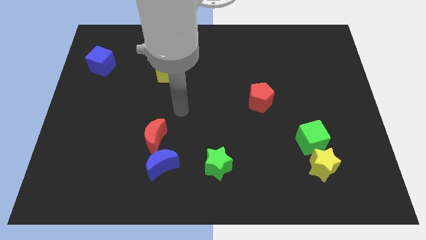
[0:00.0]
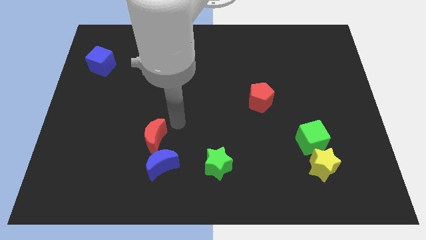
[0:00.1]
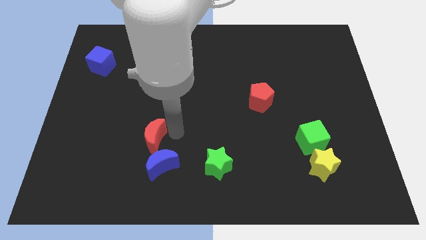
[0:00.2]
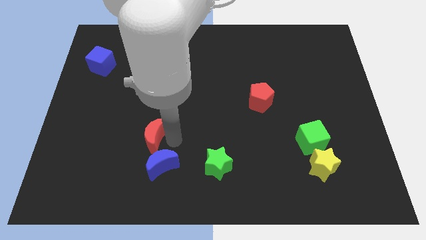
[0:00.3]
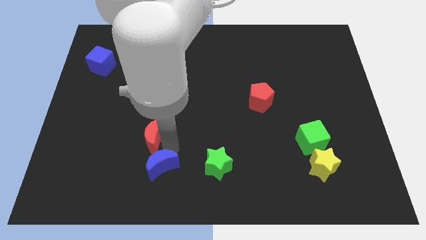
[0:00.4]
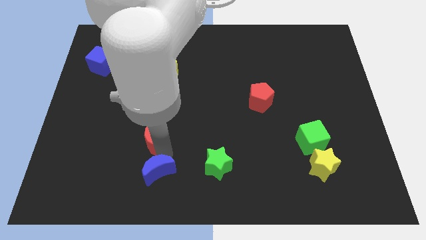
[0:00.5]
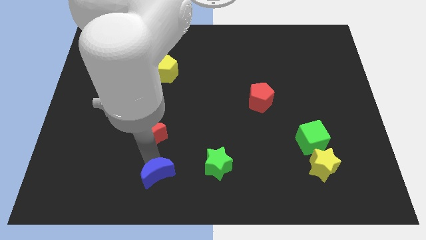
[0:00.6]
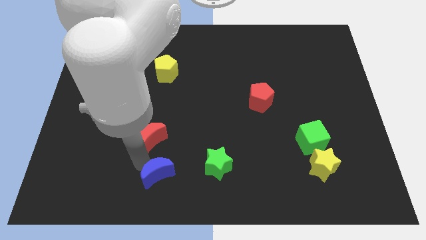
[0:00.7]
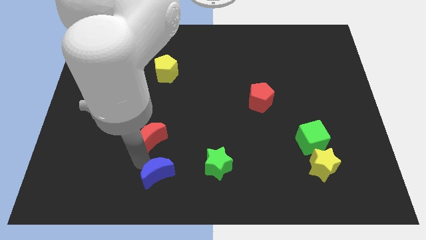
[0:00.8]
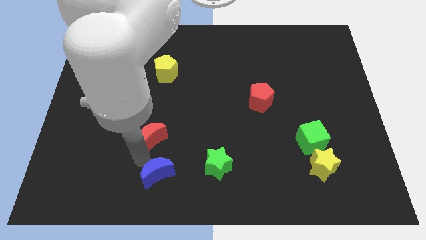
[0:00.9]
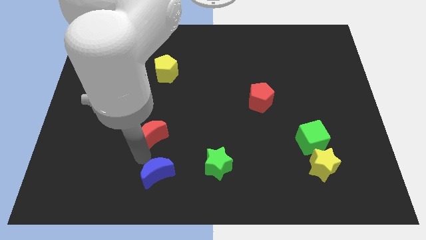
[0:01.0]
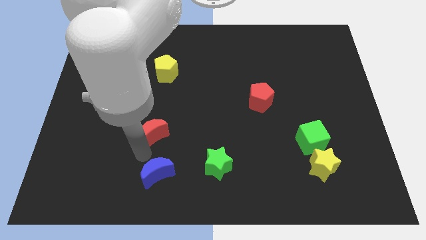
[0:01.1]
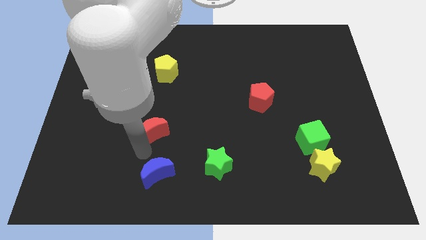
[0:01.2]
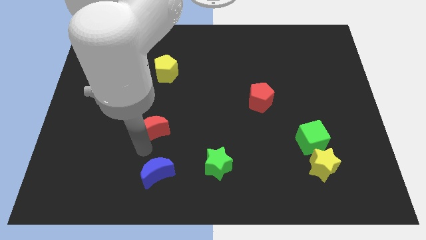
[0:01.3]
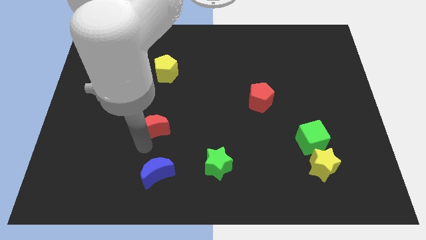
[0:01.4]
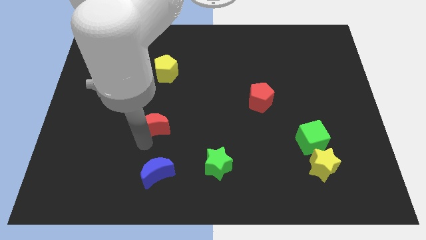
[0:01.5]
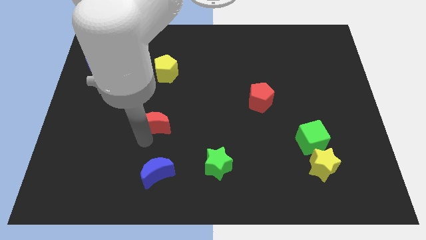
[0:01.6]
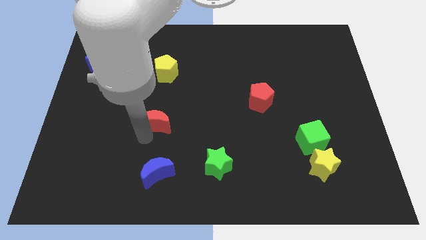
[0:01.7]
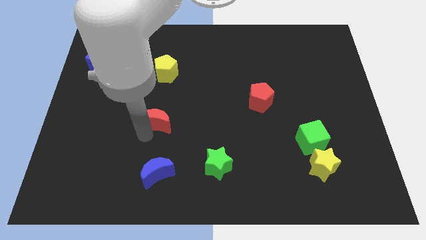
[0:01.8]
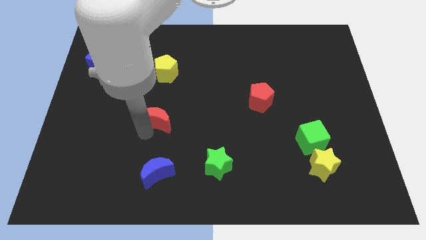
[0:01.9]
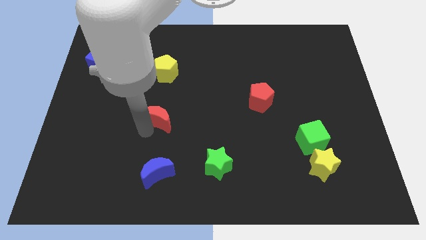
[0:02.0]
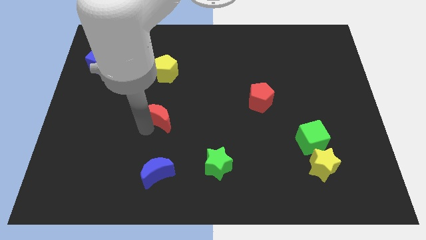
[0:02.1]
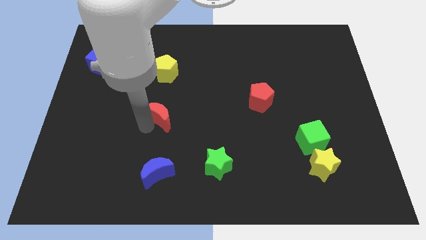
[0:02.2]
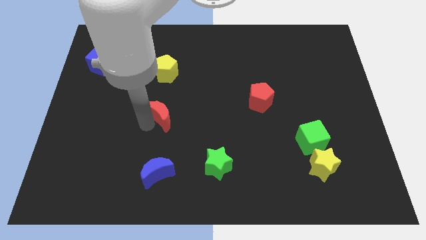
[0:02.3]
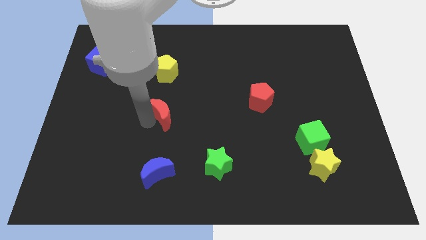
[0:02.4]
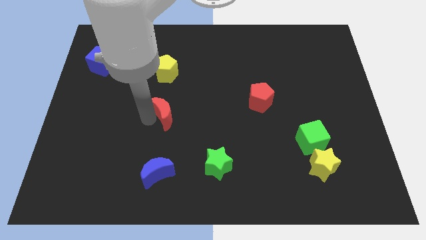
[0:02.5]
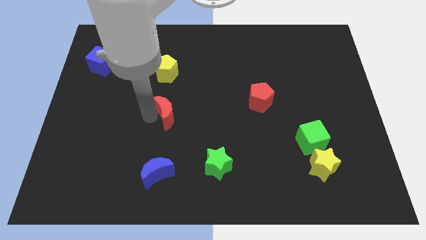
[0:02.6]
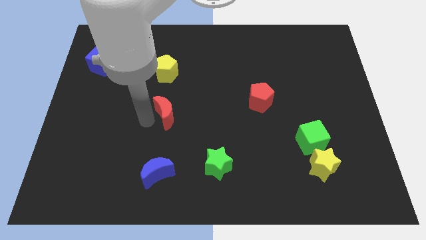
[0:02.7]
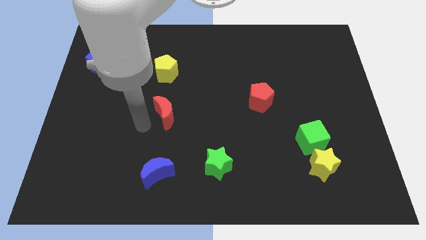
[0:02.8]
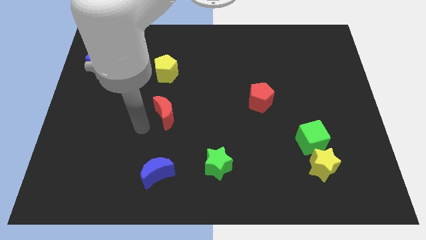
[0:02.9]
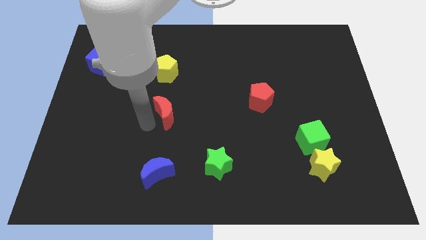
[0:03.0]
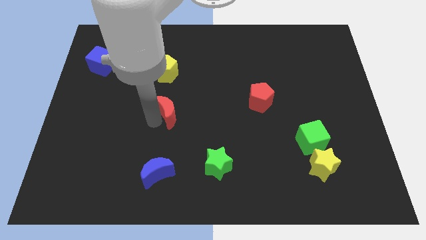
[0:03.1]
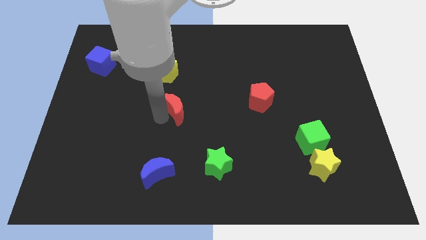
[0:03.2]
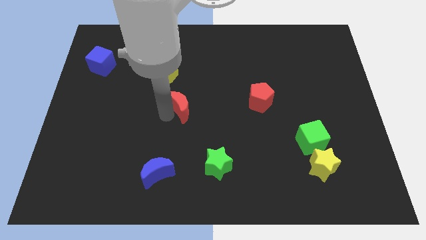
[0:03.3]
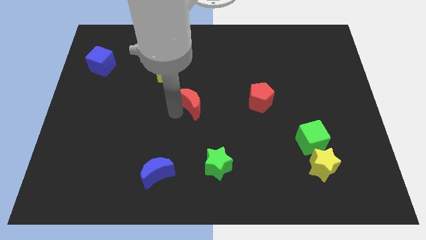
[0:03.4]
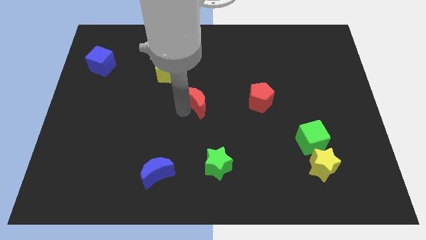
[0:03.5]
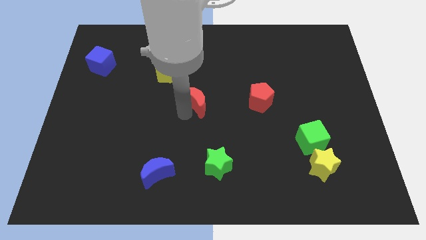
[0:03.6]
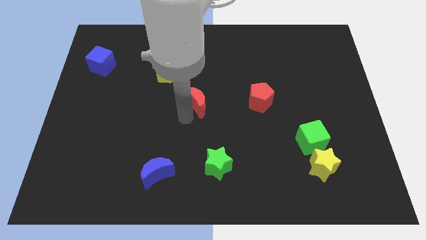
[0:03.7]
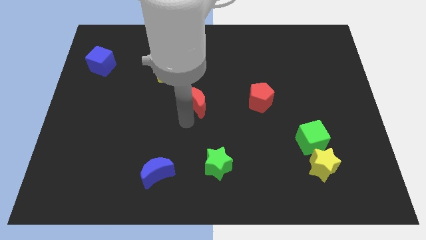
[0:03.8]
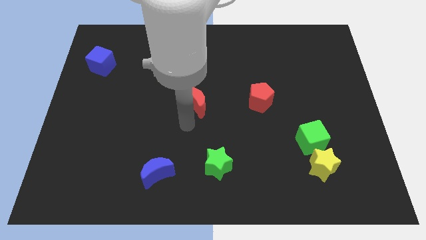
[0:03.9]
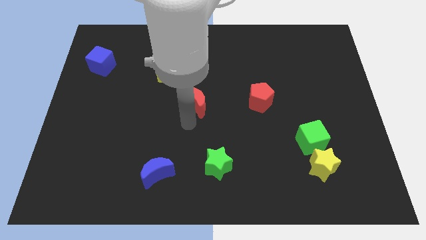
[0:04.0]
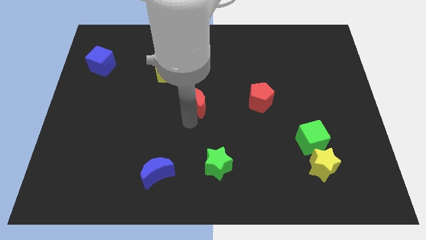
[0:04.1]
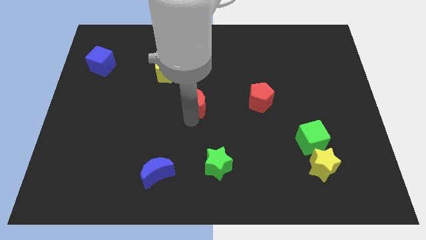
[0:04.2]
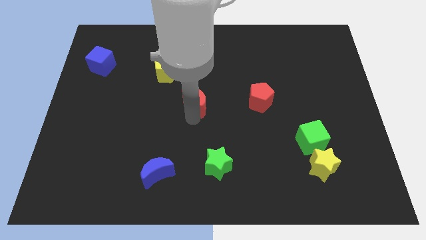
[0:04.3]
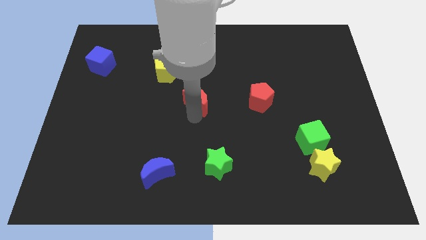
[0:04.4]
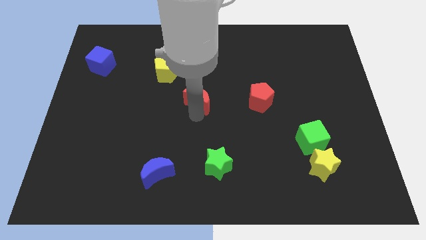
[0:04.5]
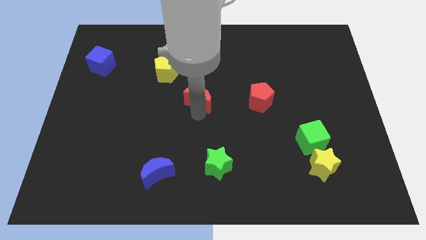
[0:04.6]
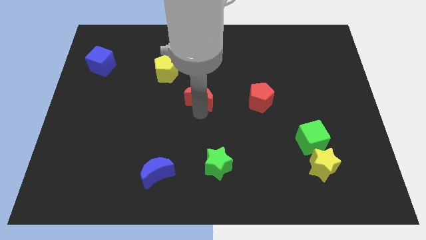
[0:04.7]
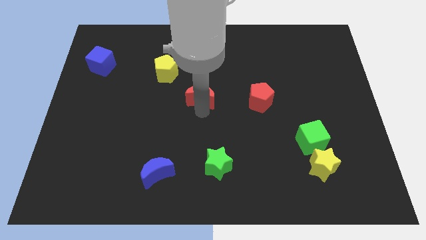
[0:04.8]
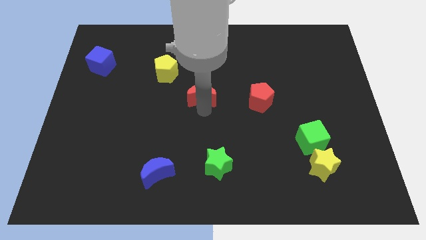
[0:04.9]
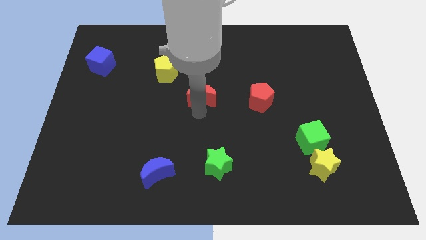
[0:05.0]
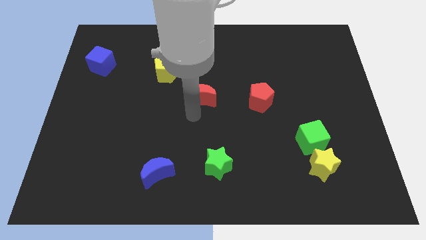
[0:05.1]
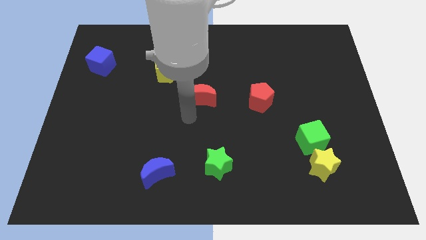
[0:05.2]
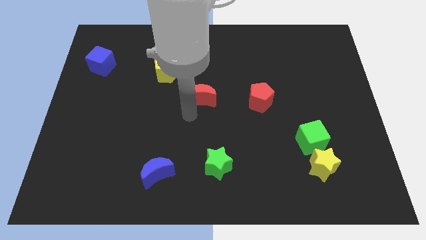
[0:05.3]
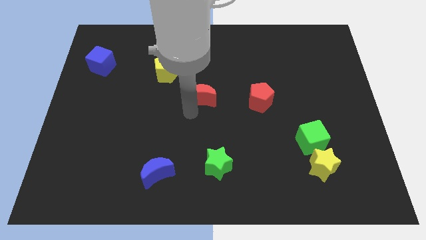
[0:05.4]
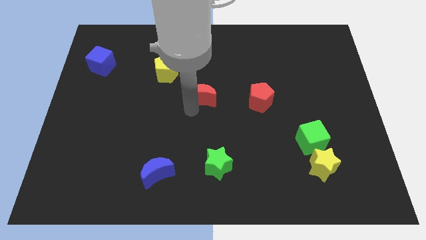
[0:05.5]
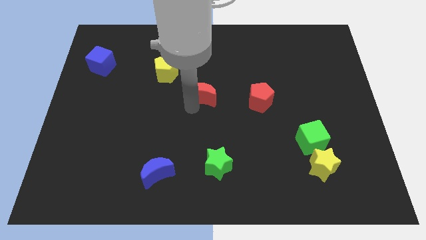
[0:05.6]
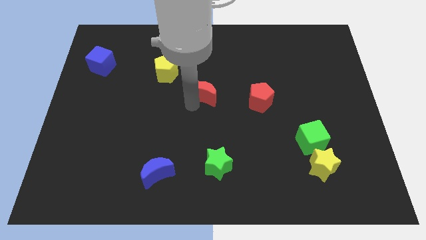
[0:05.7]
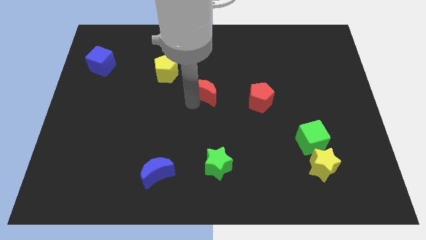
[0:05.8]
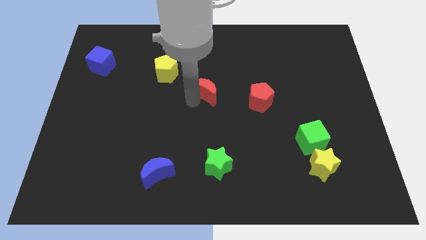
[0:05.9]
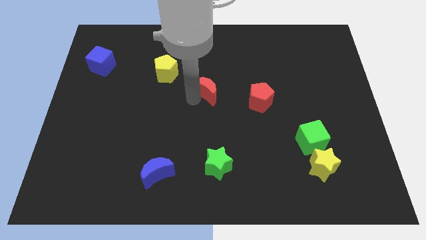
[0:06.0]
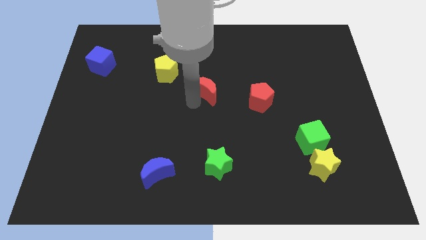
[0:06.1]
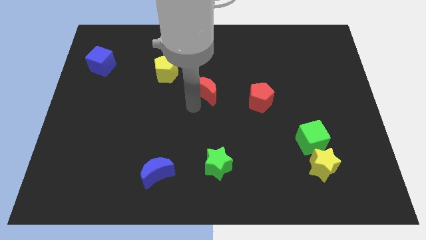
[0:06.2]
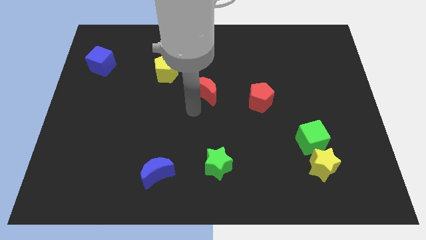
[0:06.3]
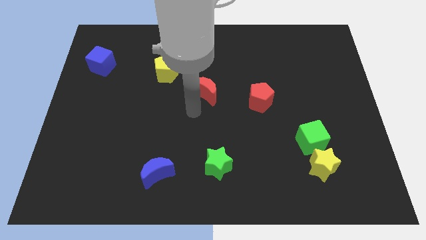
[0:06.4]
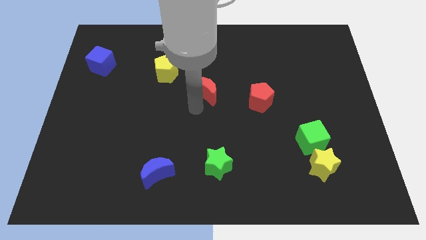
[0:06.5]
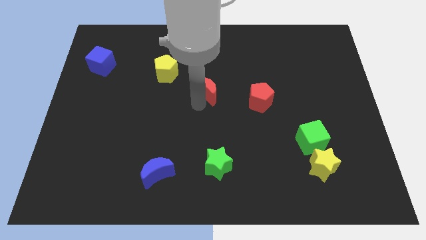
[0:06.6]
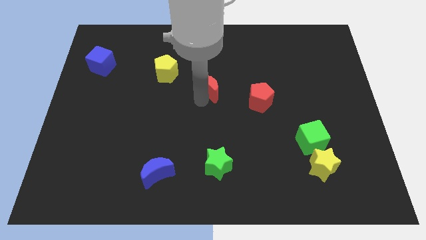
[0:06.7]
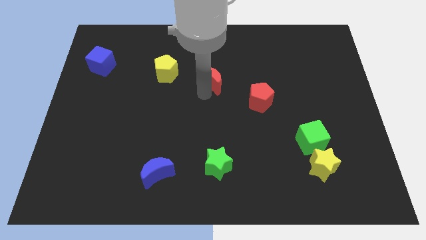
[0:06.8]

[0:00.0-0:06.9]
move the red moon diagonally up and to the right

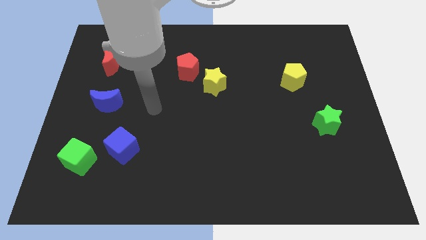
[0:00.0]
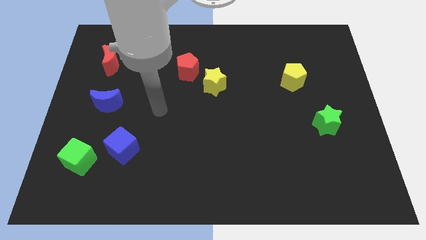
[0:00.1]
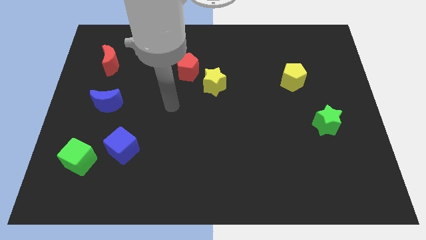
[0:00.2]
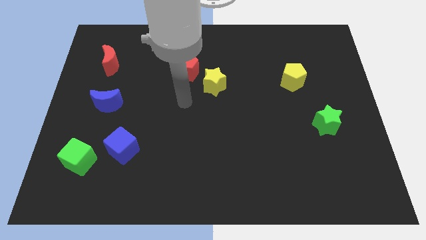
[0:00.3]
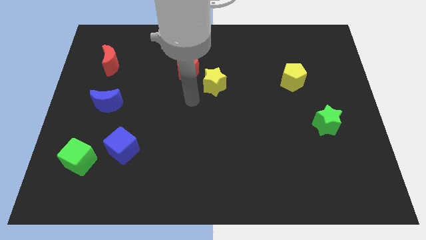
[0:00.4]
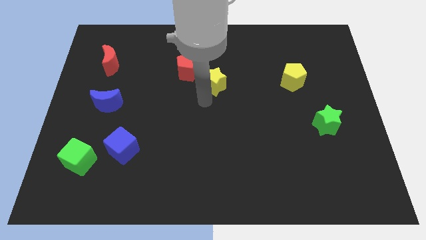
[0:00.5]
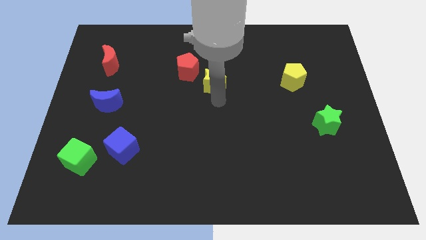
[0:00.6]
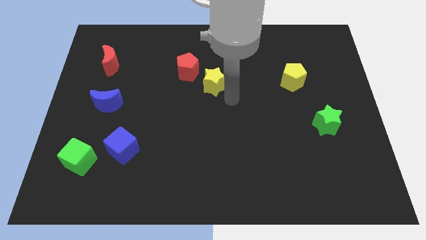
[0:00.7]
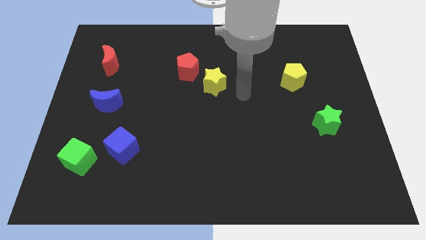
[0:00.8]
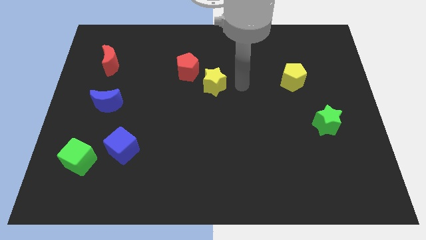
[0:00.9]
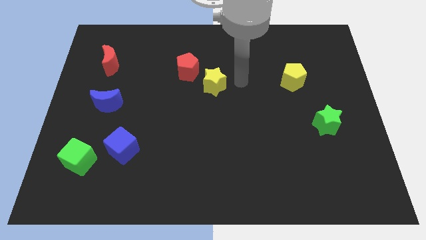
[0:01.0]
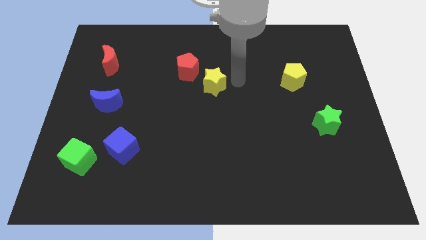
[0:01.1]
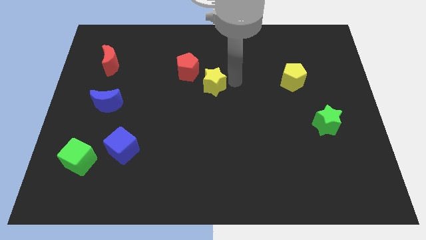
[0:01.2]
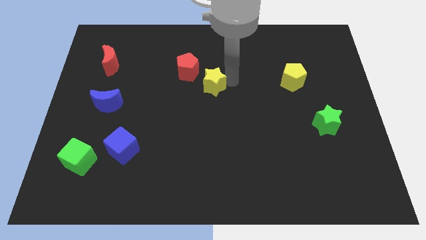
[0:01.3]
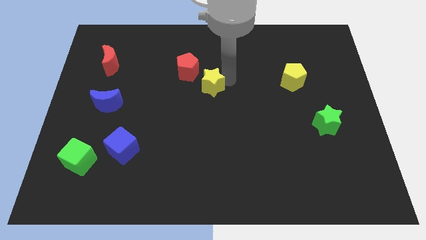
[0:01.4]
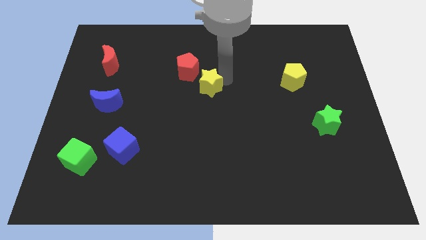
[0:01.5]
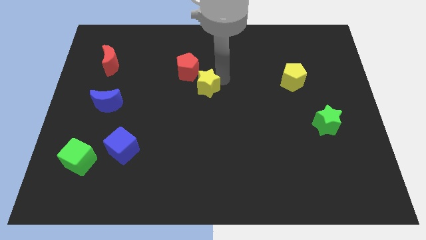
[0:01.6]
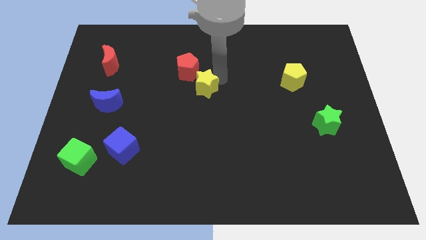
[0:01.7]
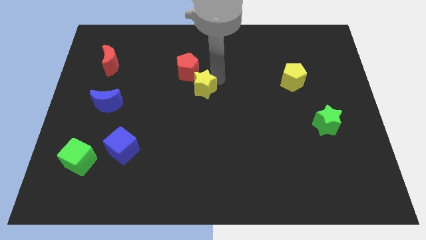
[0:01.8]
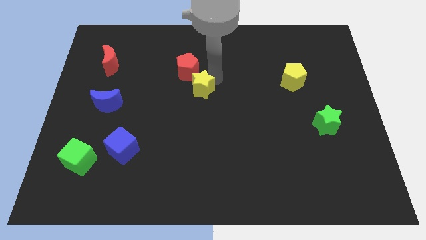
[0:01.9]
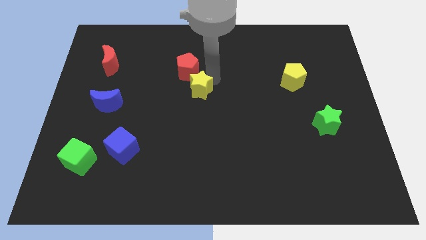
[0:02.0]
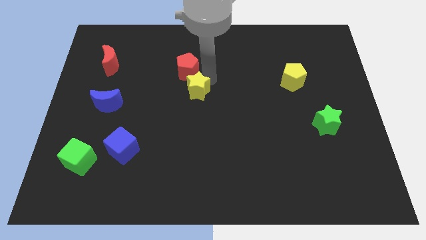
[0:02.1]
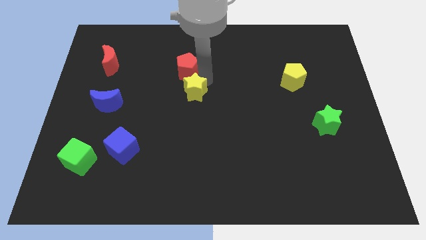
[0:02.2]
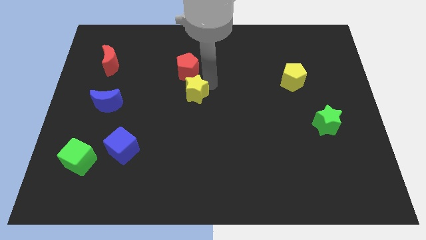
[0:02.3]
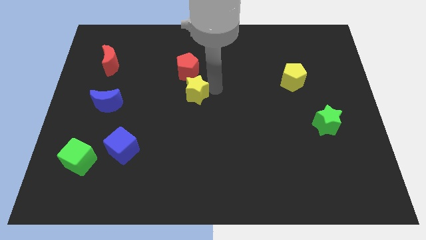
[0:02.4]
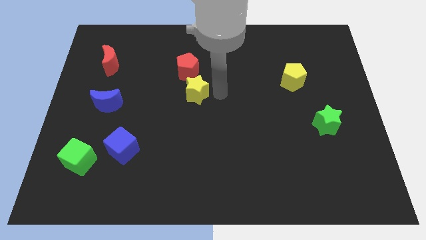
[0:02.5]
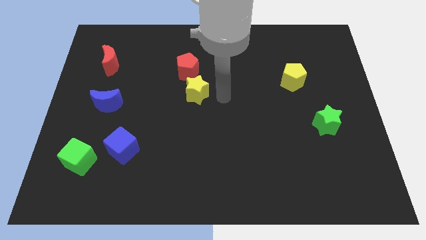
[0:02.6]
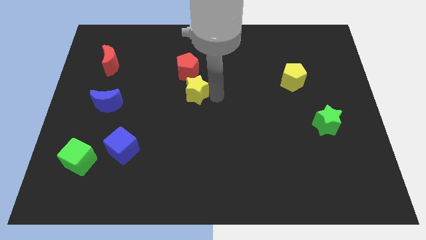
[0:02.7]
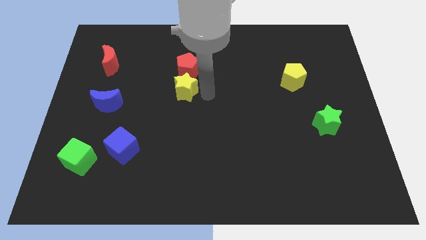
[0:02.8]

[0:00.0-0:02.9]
slide the yellow star a bit left
